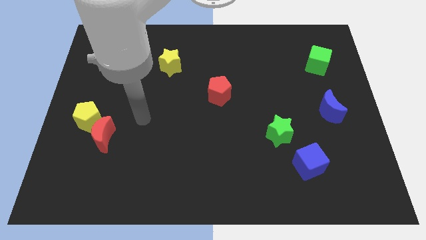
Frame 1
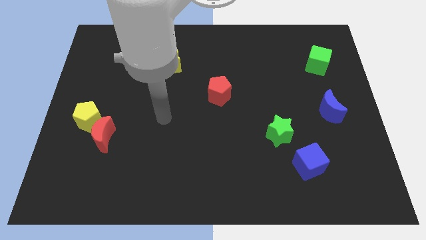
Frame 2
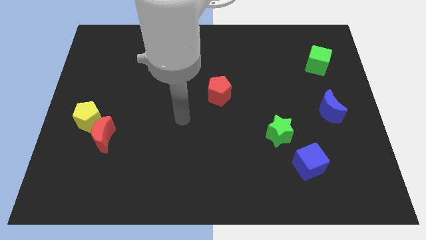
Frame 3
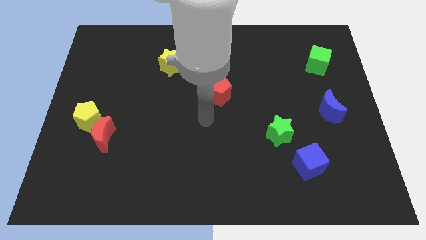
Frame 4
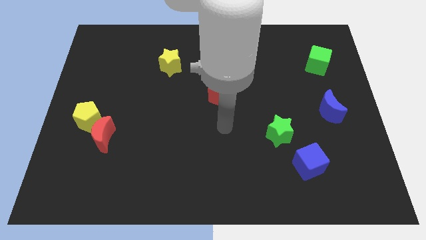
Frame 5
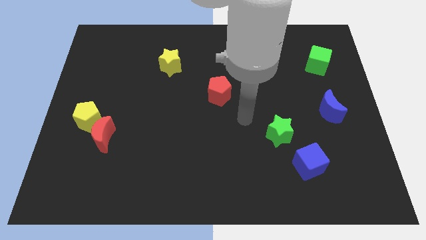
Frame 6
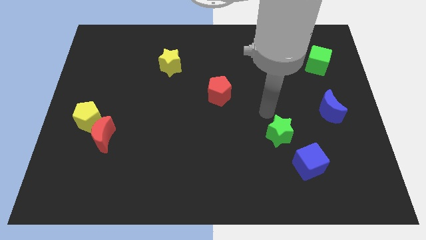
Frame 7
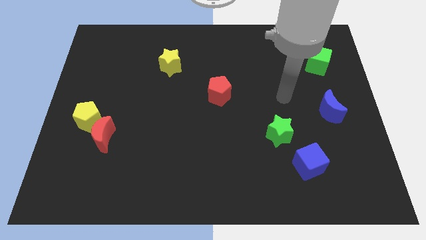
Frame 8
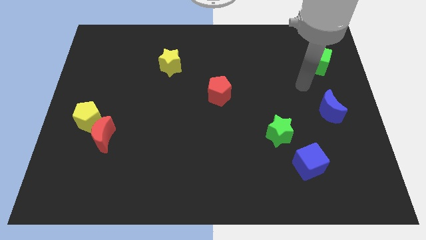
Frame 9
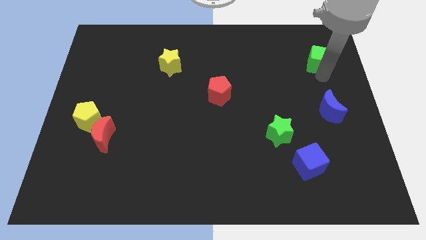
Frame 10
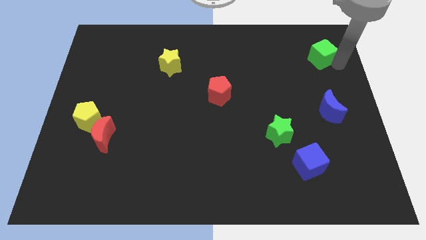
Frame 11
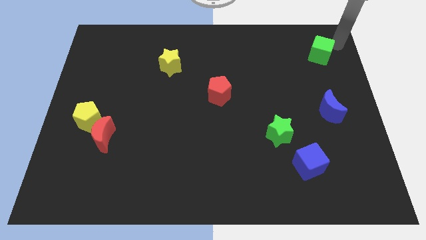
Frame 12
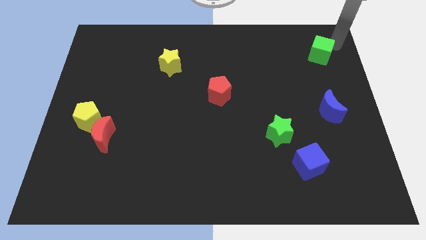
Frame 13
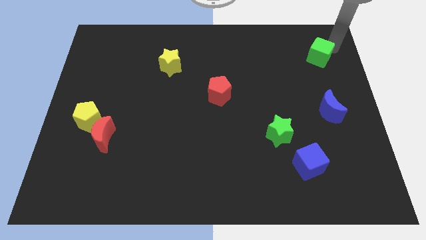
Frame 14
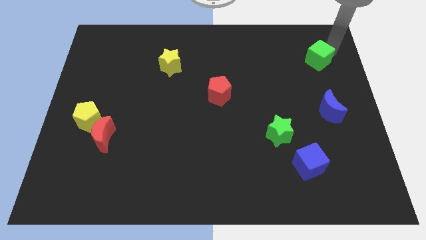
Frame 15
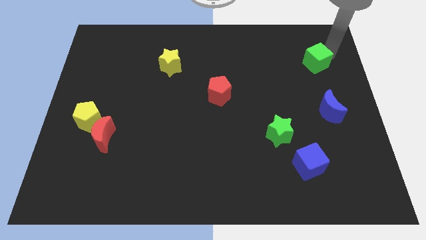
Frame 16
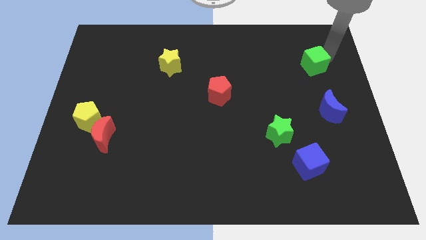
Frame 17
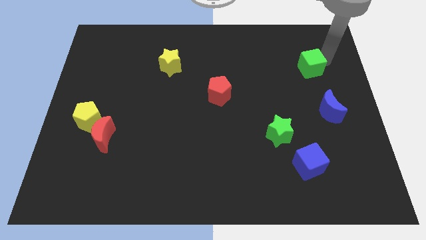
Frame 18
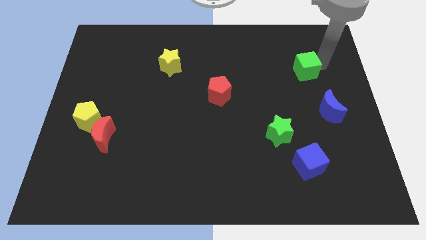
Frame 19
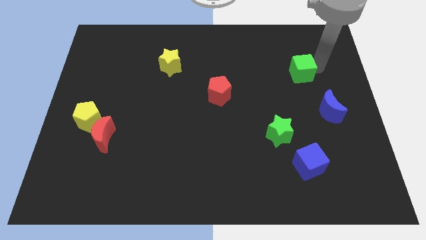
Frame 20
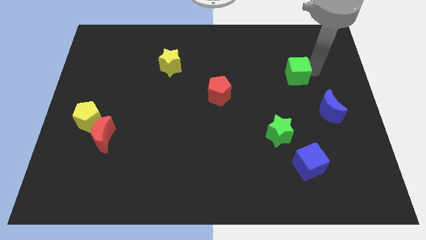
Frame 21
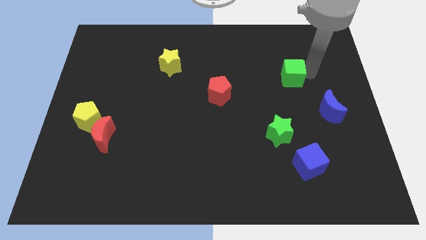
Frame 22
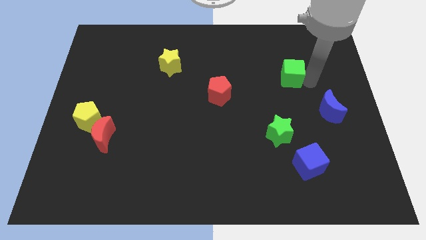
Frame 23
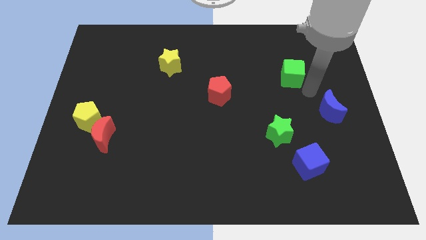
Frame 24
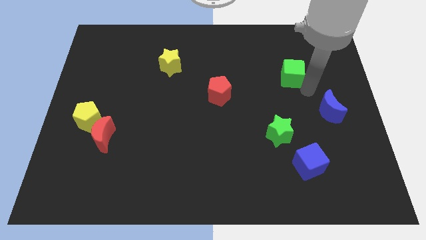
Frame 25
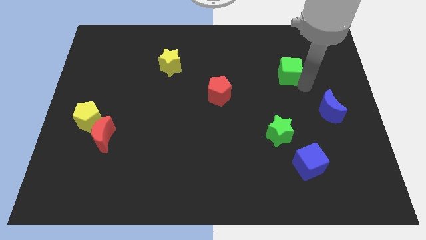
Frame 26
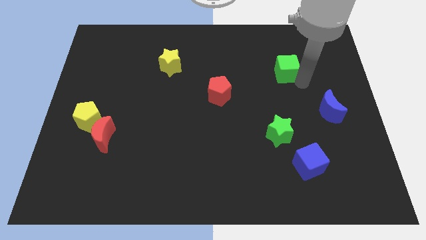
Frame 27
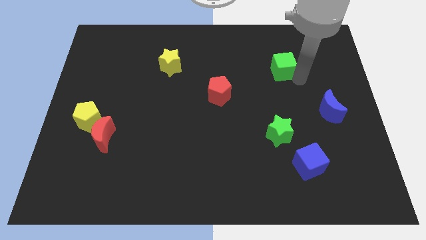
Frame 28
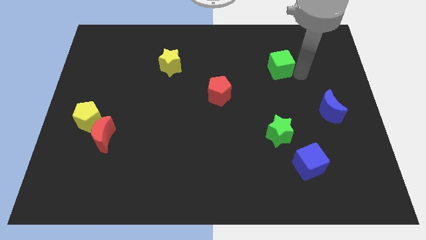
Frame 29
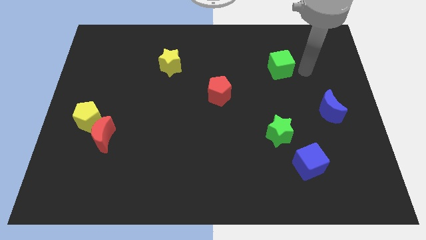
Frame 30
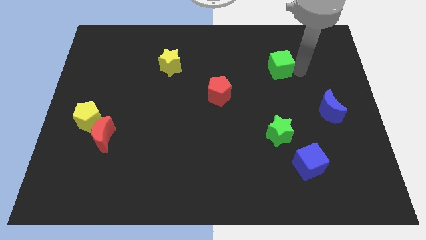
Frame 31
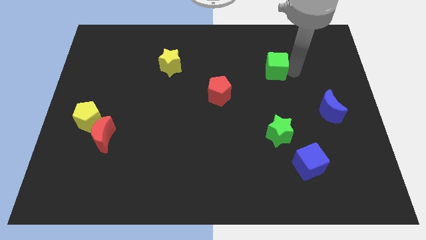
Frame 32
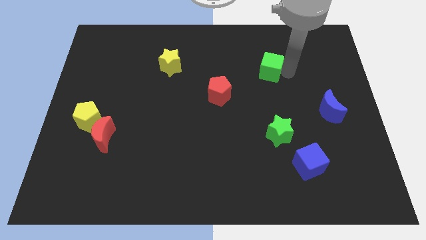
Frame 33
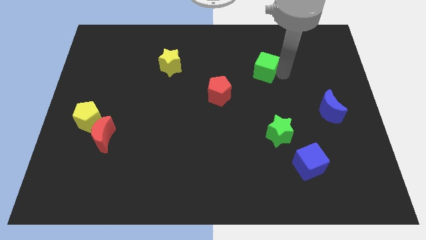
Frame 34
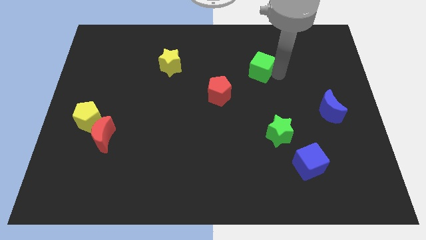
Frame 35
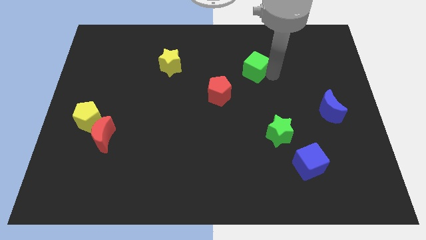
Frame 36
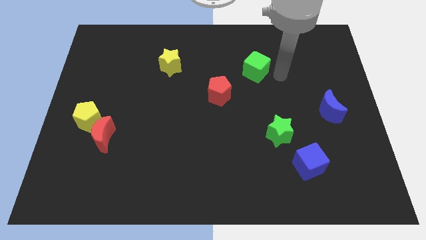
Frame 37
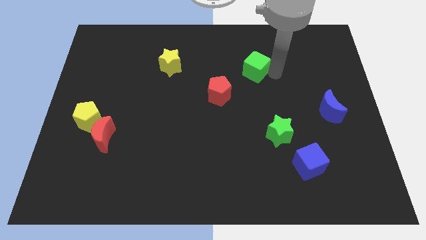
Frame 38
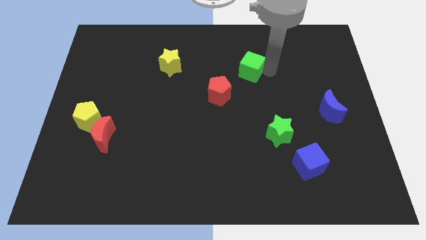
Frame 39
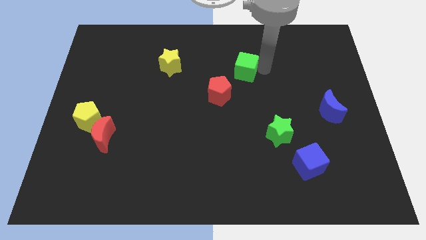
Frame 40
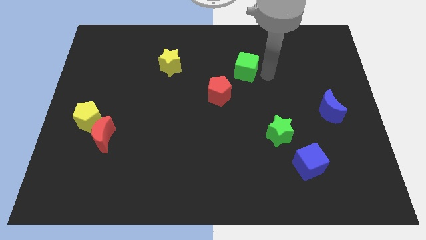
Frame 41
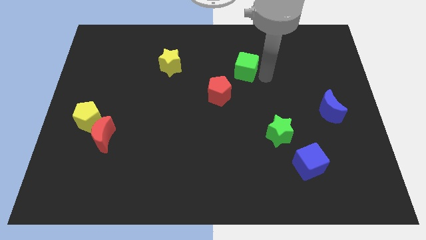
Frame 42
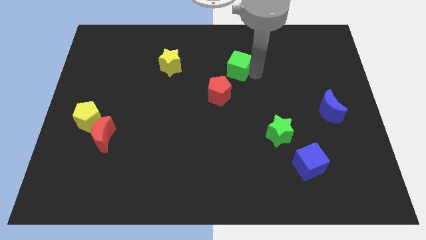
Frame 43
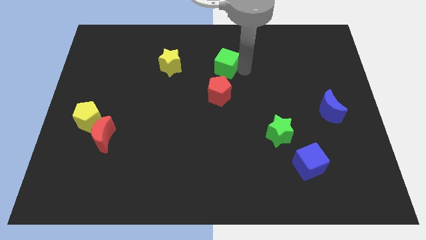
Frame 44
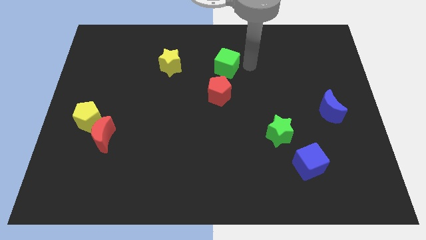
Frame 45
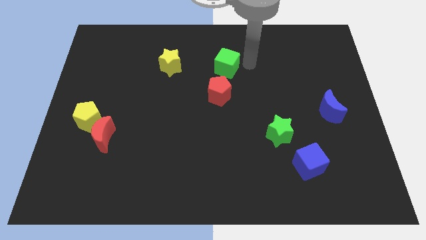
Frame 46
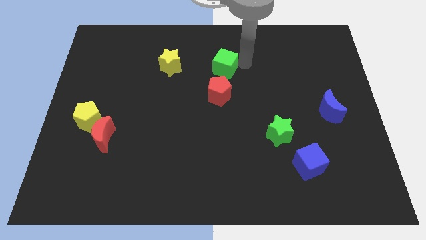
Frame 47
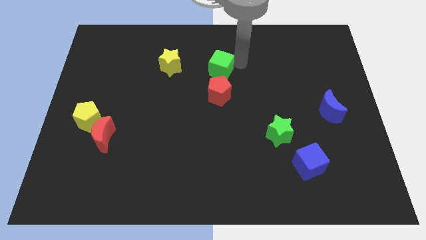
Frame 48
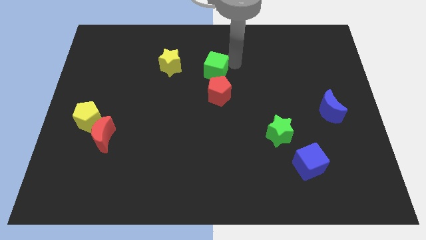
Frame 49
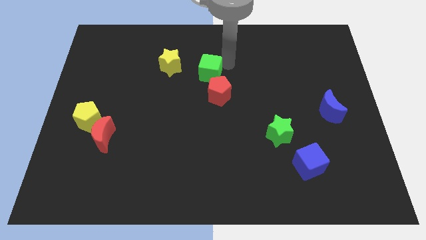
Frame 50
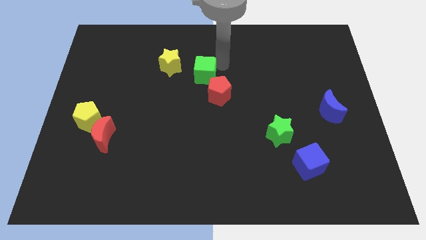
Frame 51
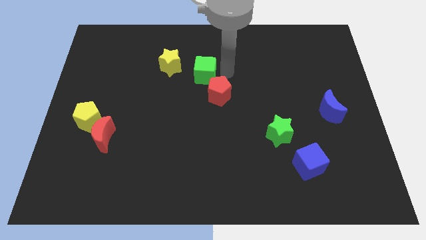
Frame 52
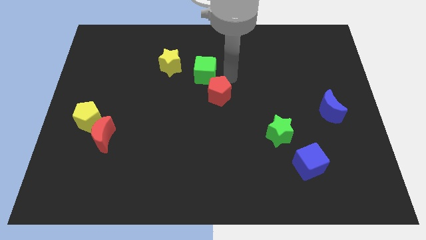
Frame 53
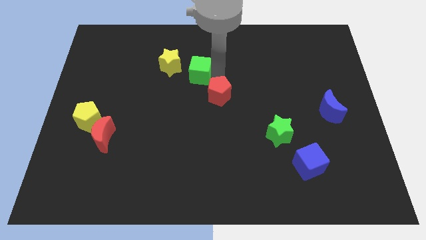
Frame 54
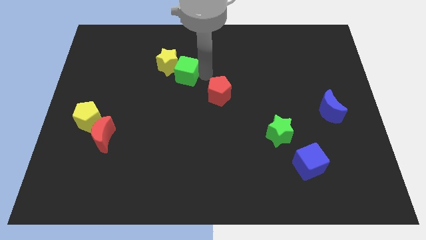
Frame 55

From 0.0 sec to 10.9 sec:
move the green cube to the yellow star
